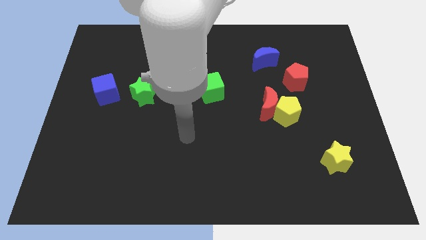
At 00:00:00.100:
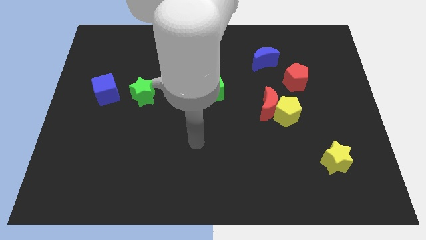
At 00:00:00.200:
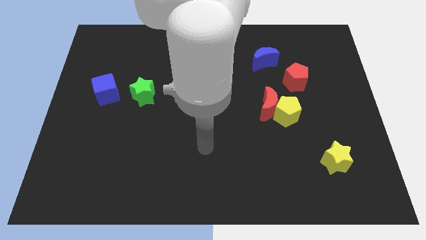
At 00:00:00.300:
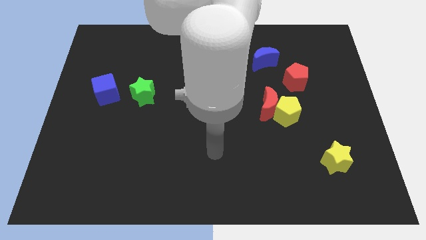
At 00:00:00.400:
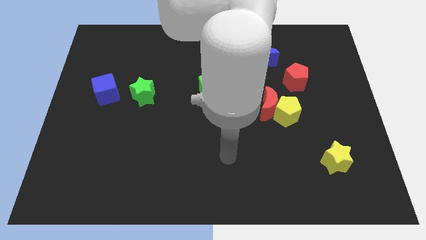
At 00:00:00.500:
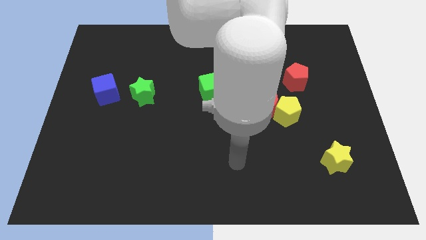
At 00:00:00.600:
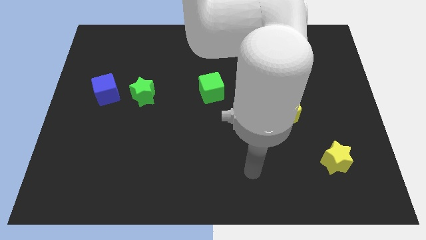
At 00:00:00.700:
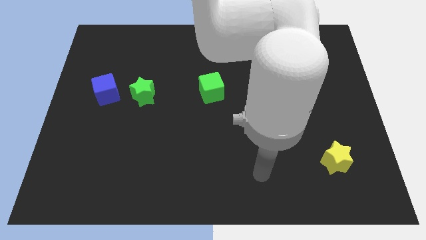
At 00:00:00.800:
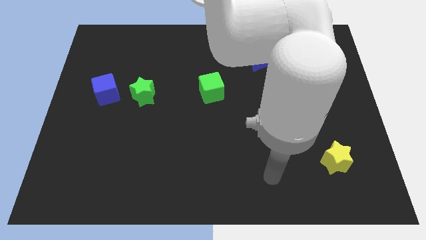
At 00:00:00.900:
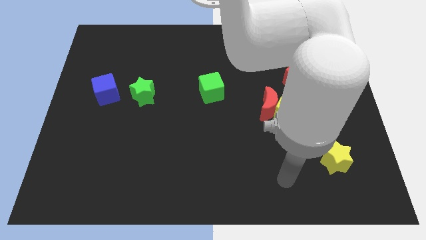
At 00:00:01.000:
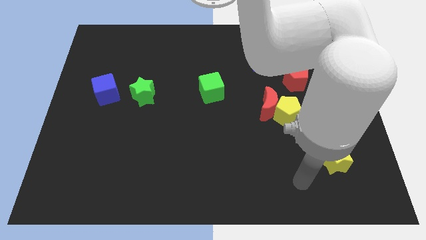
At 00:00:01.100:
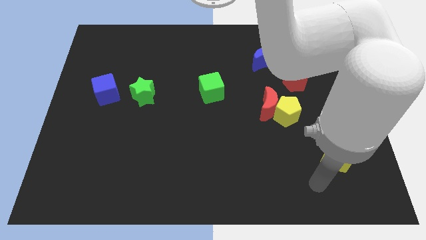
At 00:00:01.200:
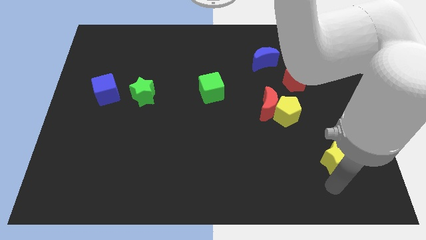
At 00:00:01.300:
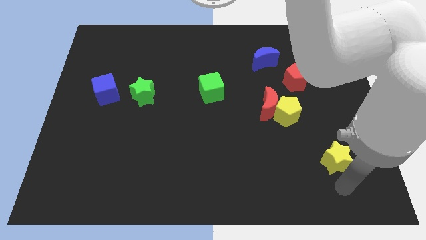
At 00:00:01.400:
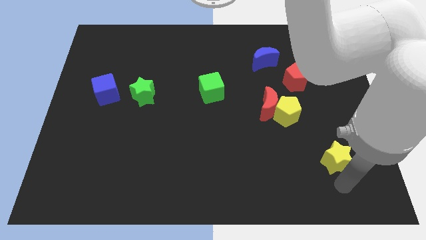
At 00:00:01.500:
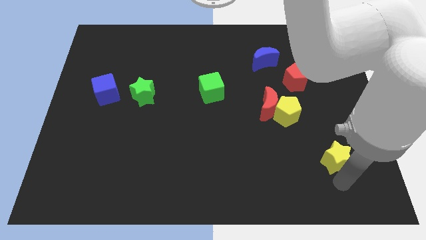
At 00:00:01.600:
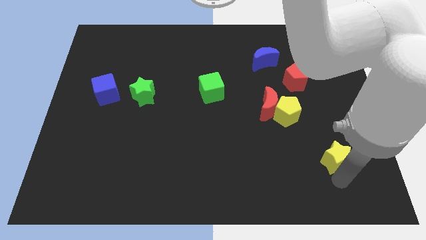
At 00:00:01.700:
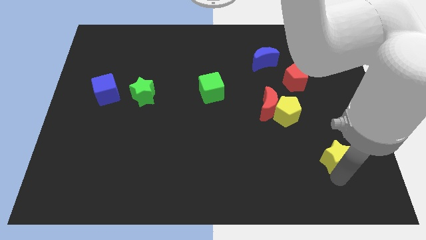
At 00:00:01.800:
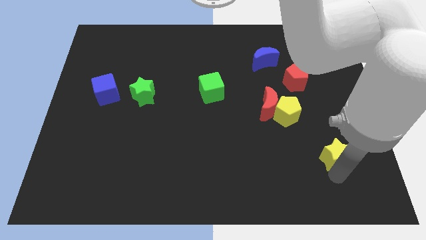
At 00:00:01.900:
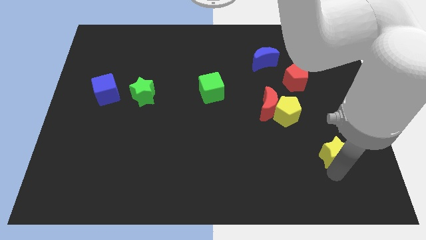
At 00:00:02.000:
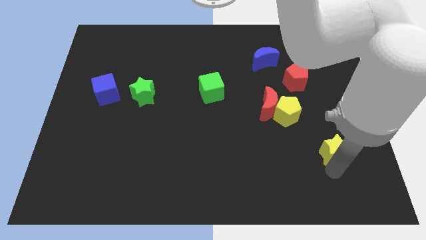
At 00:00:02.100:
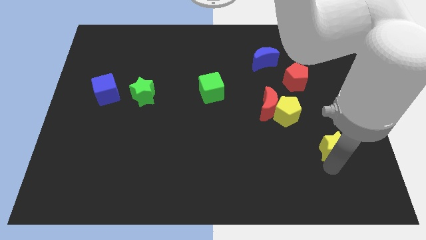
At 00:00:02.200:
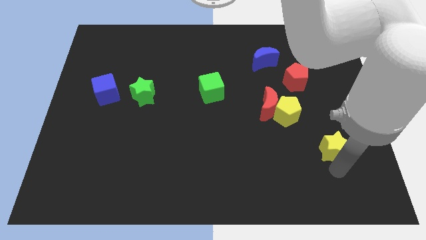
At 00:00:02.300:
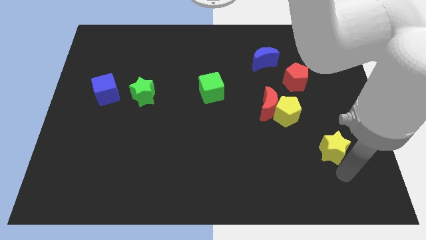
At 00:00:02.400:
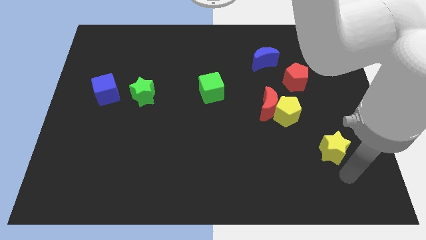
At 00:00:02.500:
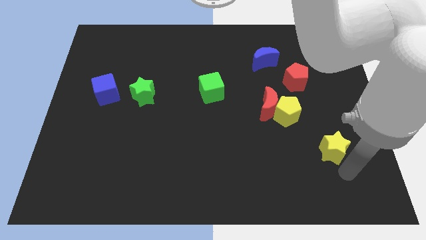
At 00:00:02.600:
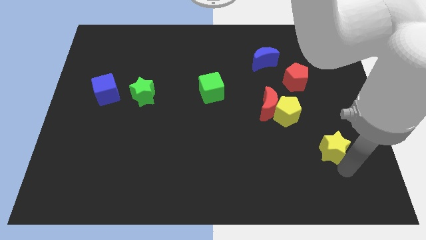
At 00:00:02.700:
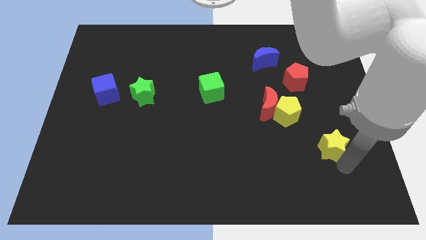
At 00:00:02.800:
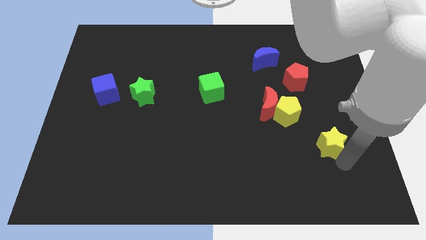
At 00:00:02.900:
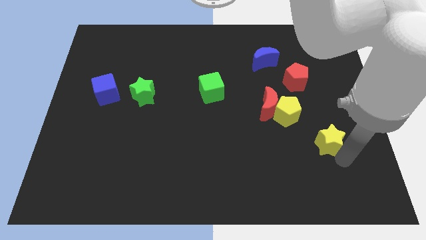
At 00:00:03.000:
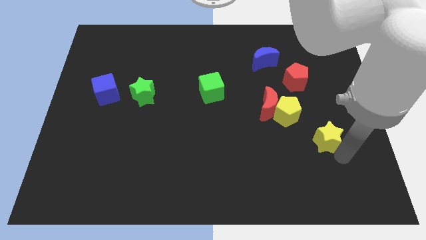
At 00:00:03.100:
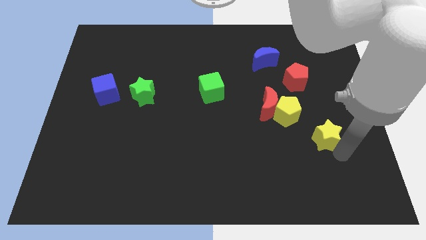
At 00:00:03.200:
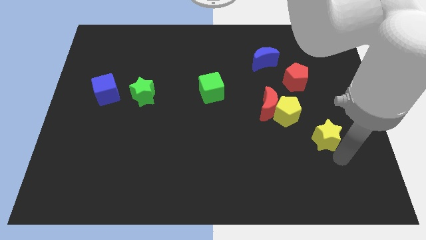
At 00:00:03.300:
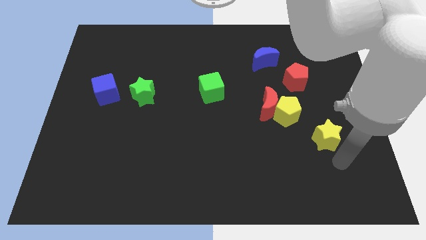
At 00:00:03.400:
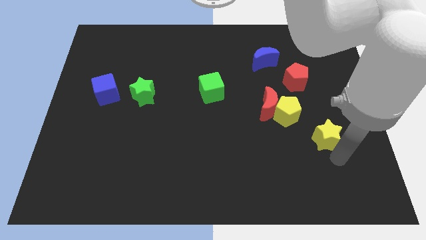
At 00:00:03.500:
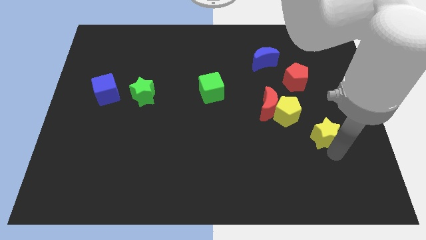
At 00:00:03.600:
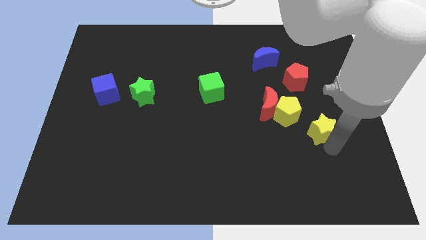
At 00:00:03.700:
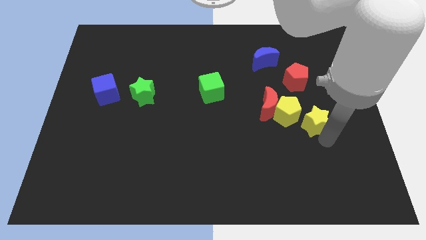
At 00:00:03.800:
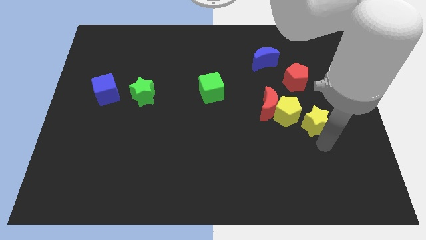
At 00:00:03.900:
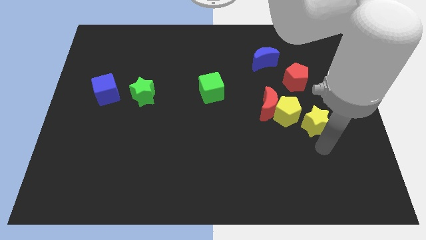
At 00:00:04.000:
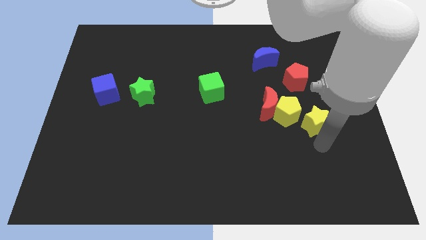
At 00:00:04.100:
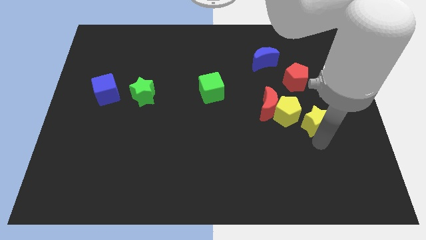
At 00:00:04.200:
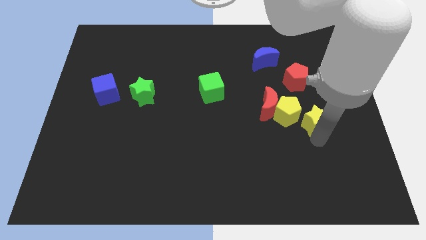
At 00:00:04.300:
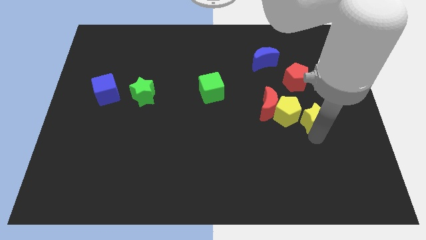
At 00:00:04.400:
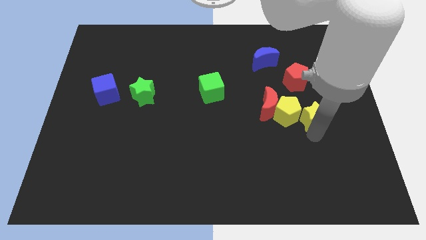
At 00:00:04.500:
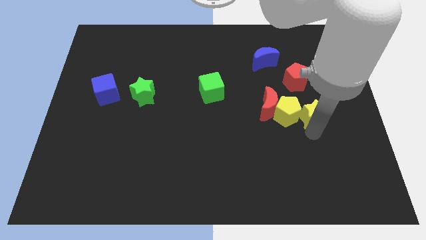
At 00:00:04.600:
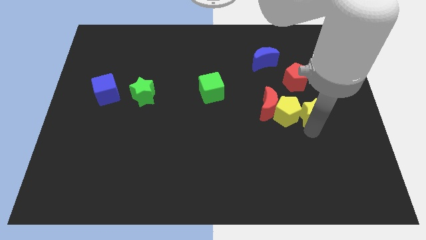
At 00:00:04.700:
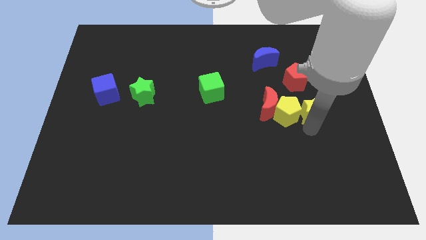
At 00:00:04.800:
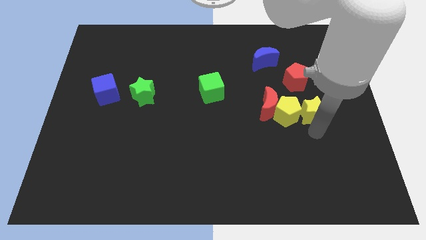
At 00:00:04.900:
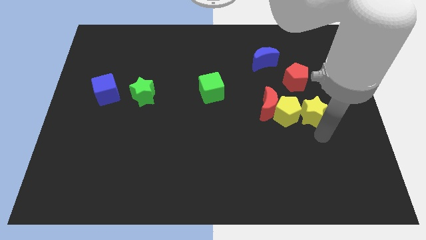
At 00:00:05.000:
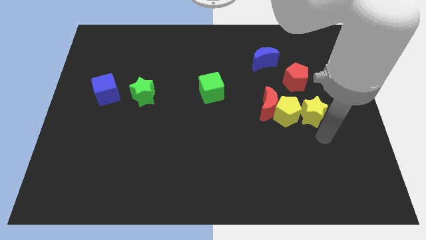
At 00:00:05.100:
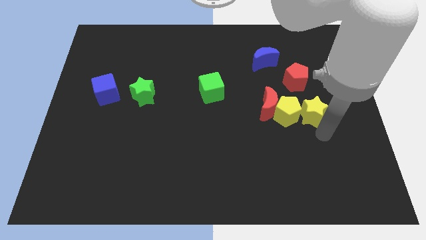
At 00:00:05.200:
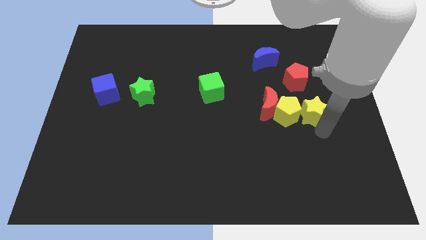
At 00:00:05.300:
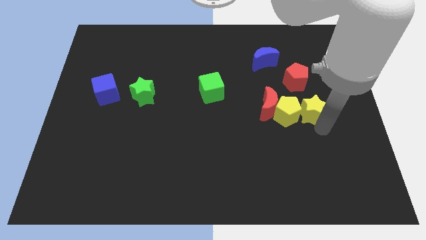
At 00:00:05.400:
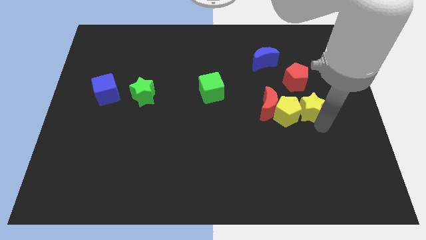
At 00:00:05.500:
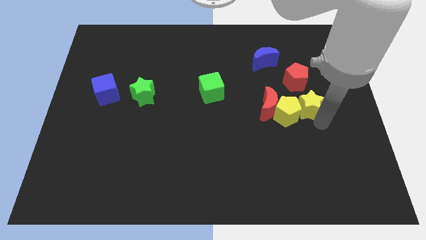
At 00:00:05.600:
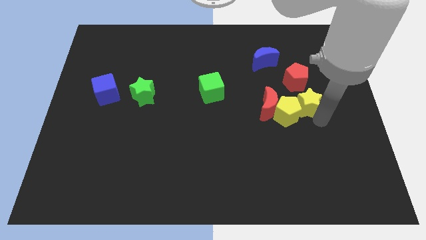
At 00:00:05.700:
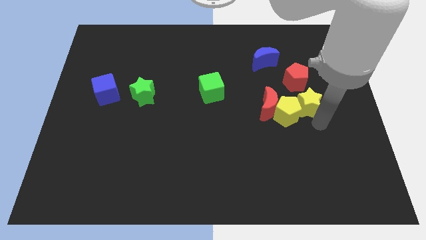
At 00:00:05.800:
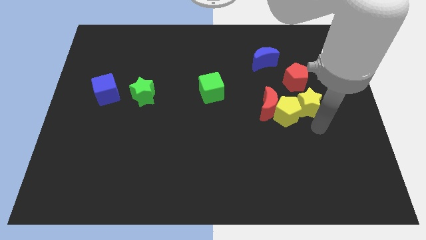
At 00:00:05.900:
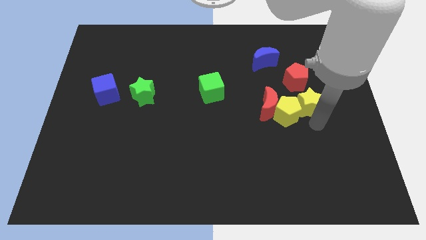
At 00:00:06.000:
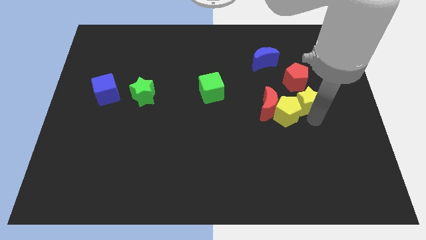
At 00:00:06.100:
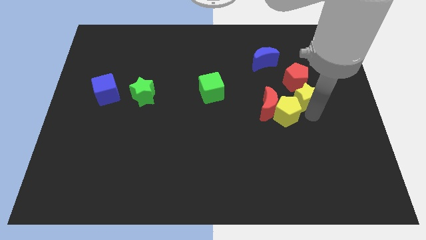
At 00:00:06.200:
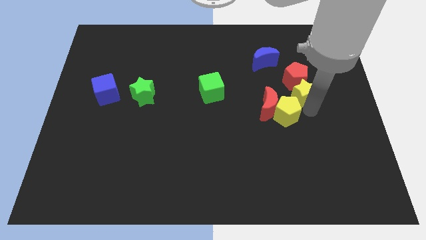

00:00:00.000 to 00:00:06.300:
put the yellow star next to the red pentagon
